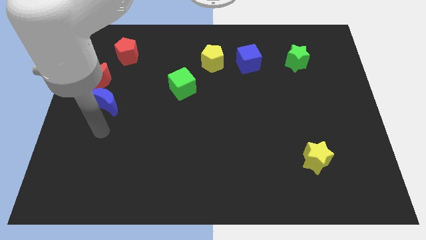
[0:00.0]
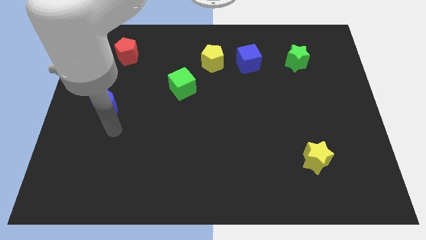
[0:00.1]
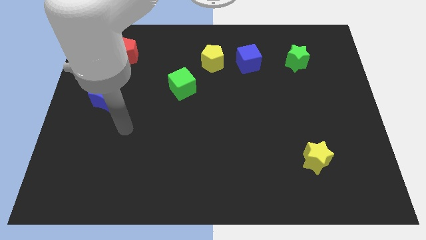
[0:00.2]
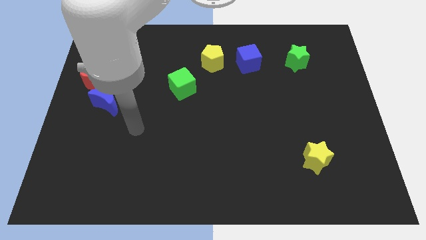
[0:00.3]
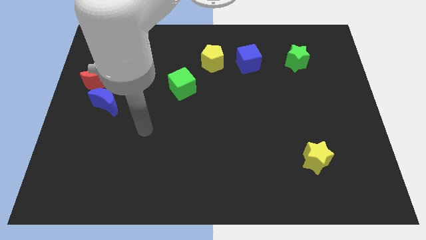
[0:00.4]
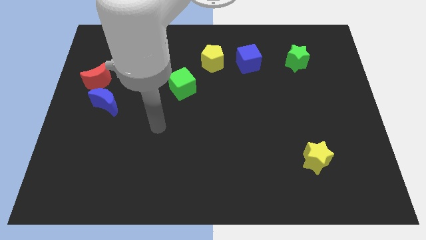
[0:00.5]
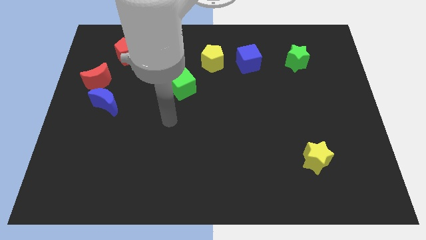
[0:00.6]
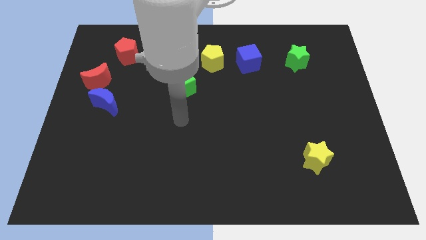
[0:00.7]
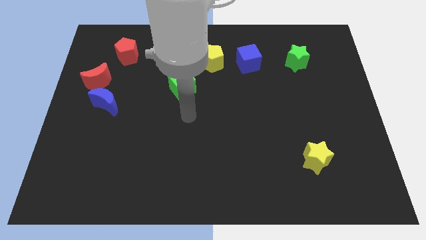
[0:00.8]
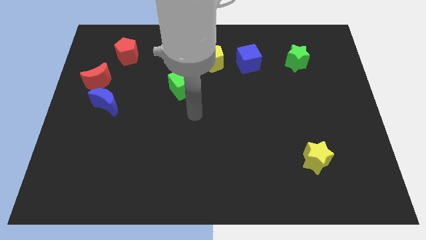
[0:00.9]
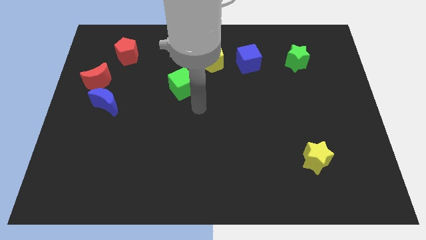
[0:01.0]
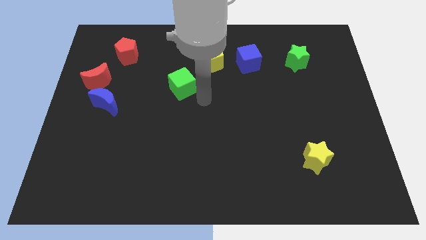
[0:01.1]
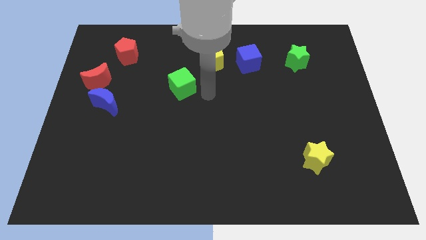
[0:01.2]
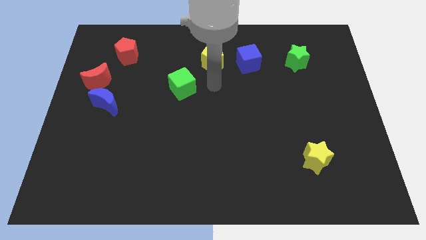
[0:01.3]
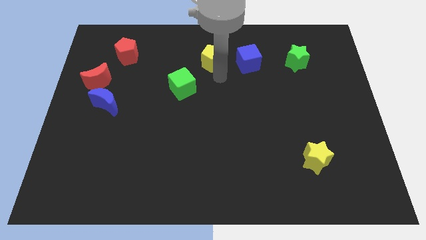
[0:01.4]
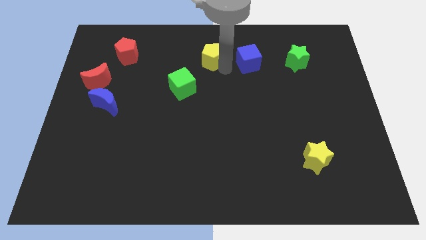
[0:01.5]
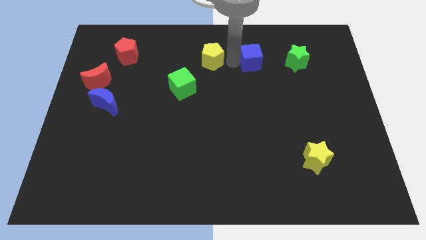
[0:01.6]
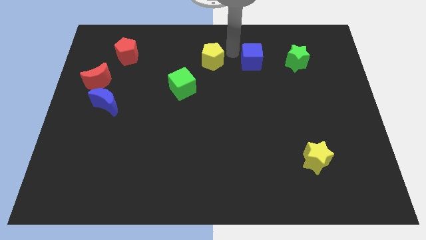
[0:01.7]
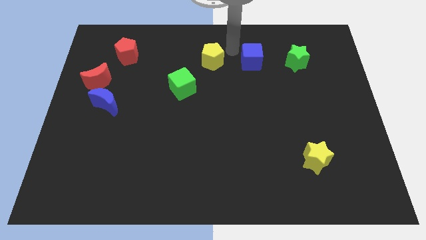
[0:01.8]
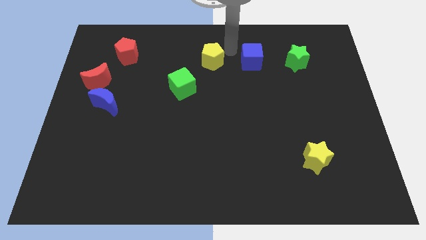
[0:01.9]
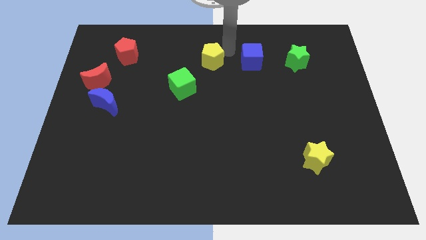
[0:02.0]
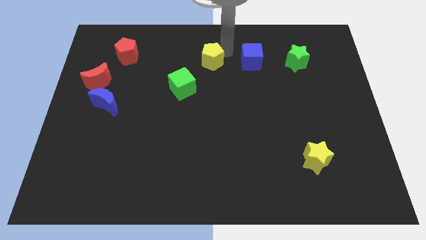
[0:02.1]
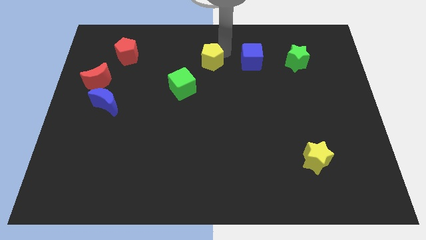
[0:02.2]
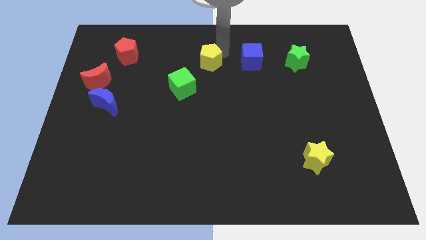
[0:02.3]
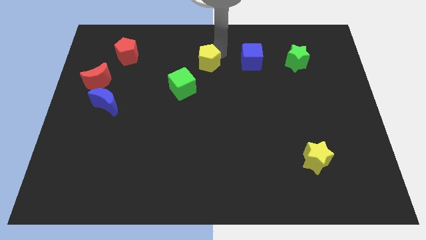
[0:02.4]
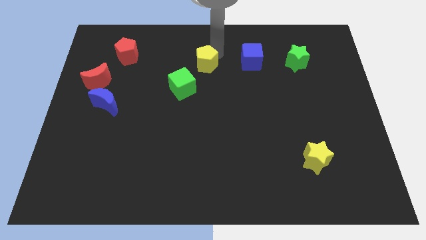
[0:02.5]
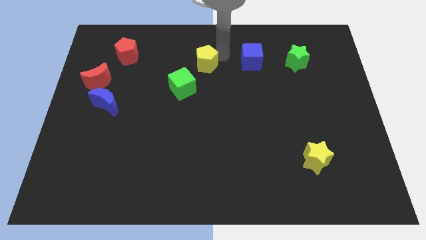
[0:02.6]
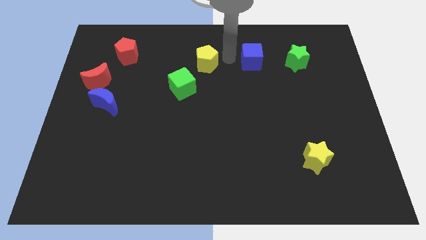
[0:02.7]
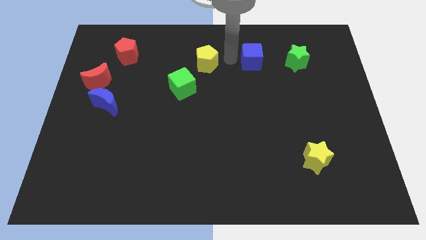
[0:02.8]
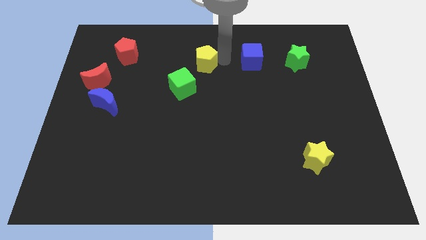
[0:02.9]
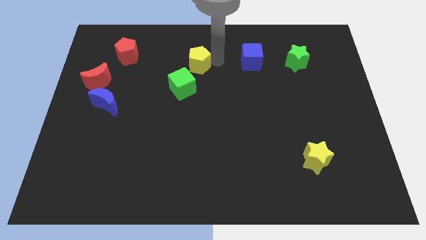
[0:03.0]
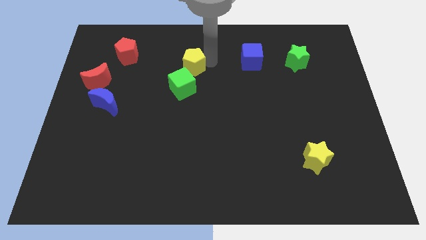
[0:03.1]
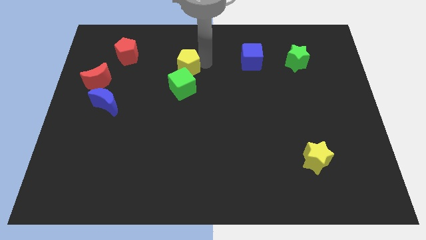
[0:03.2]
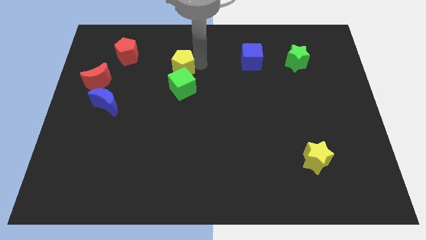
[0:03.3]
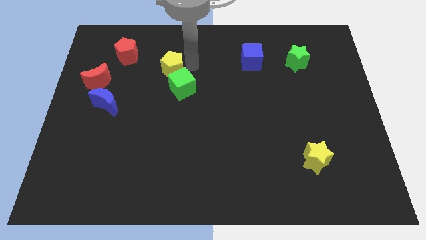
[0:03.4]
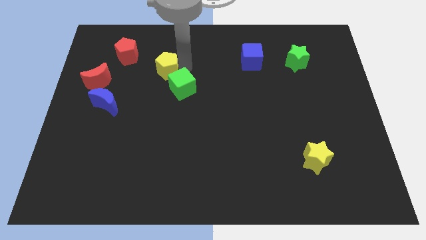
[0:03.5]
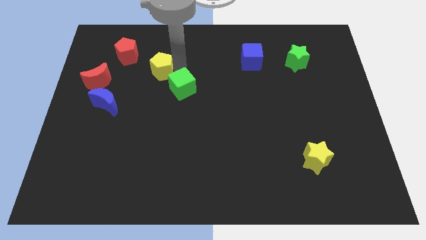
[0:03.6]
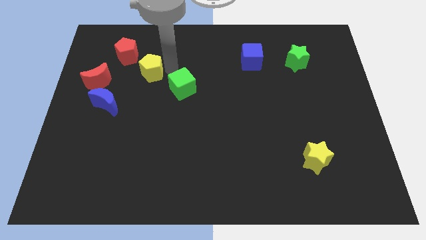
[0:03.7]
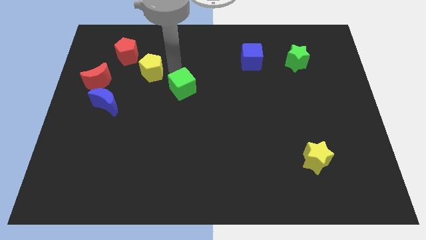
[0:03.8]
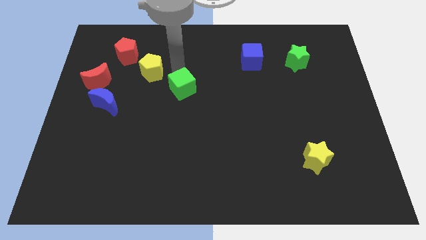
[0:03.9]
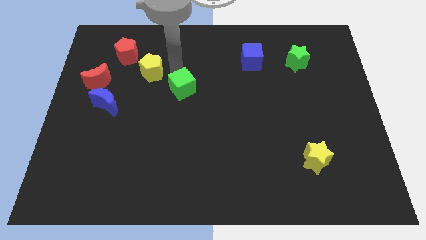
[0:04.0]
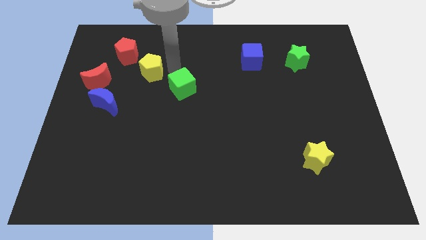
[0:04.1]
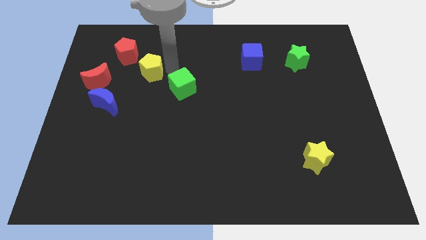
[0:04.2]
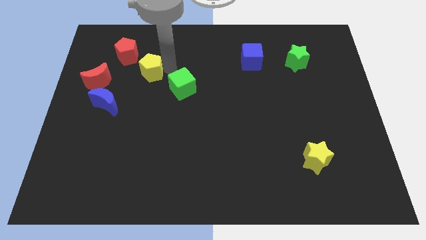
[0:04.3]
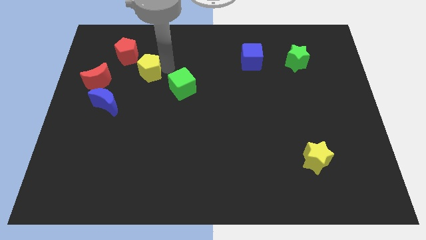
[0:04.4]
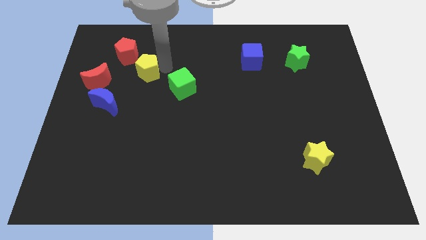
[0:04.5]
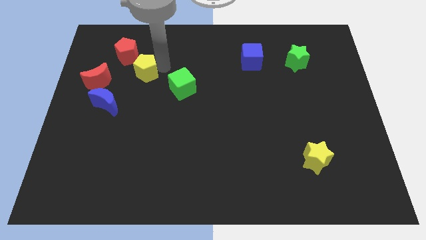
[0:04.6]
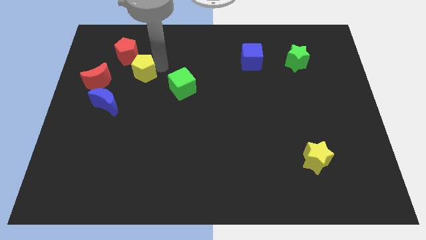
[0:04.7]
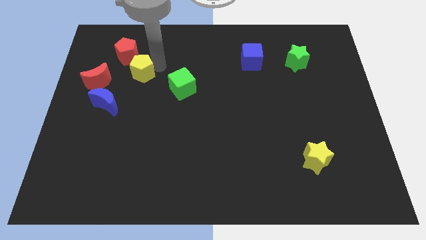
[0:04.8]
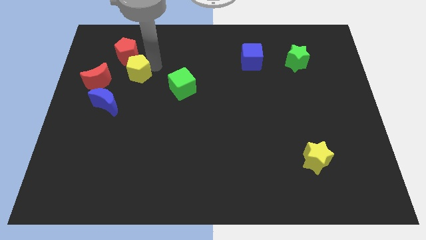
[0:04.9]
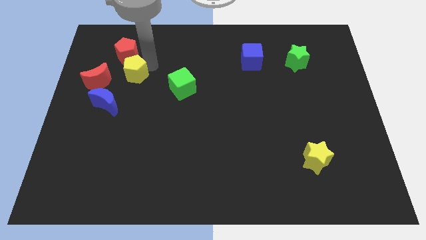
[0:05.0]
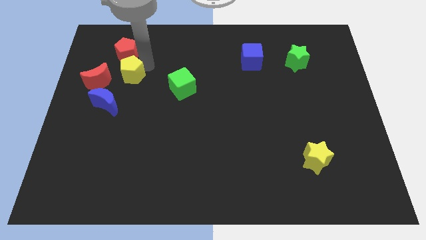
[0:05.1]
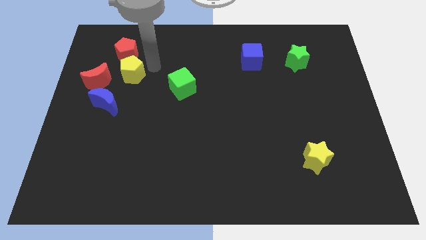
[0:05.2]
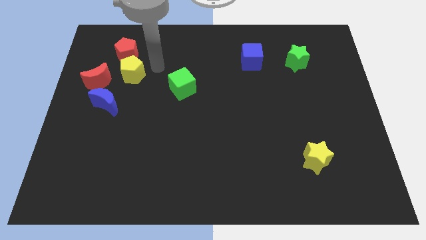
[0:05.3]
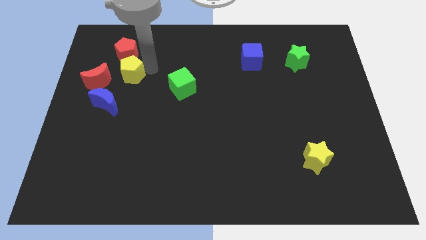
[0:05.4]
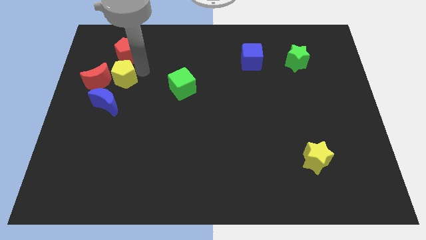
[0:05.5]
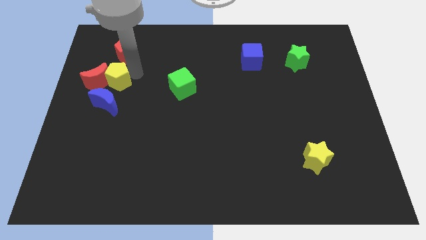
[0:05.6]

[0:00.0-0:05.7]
slide the yellow pentagon towards the red moon

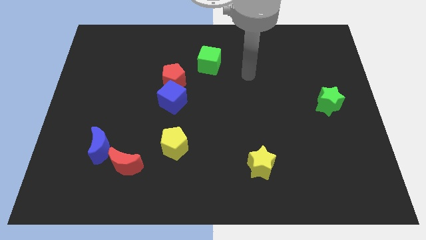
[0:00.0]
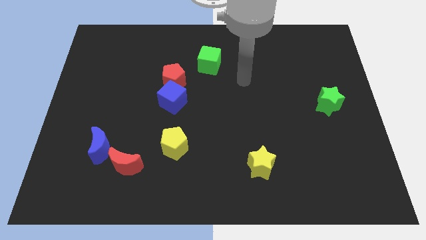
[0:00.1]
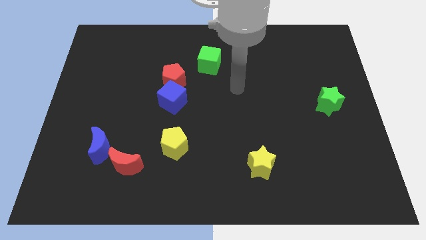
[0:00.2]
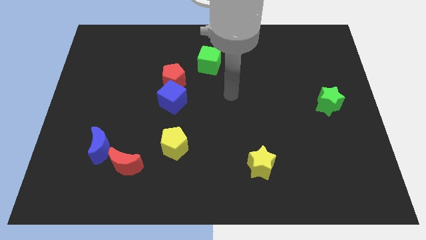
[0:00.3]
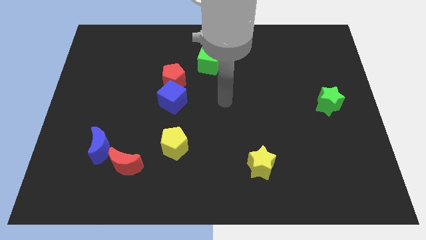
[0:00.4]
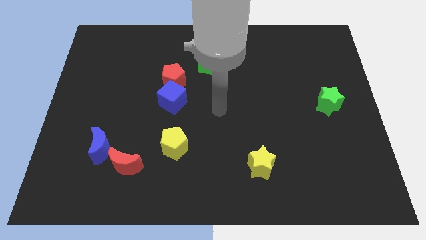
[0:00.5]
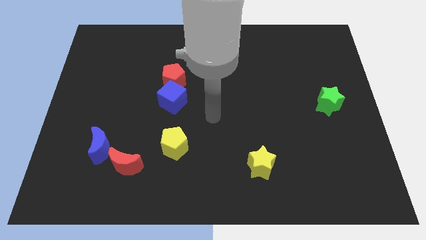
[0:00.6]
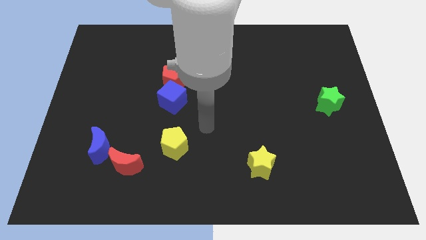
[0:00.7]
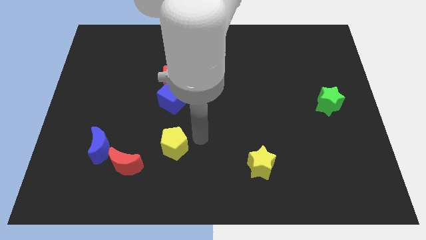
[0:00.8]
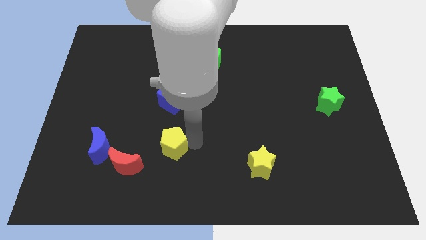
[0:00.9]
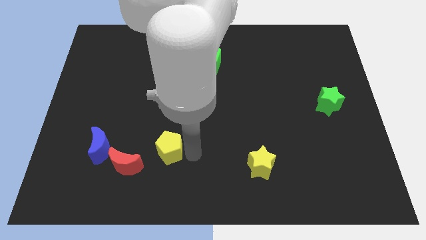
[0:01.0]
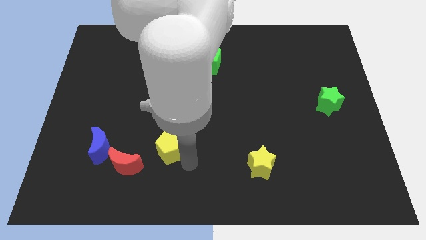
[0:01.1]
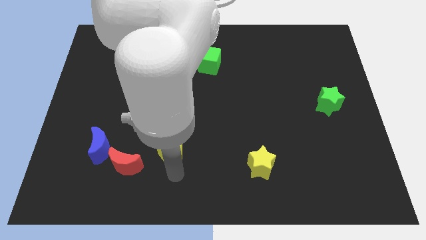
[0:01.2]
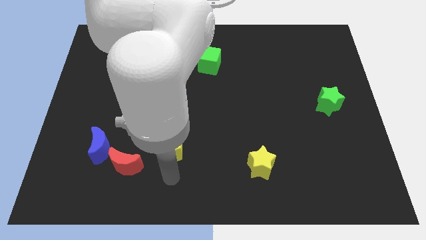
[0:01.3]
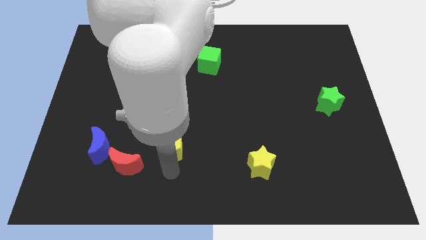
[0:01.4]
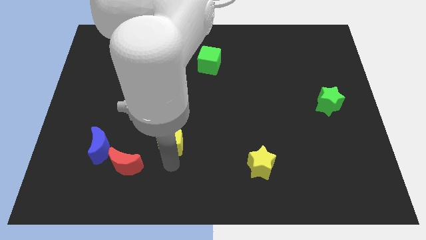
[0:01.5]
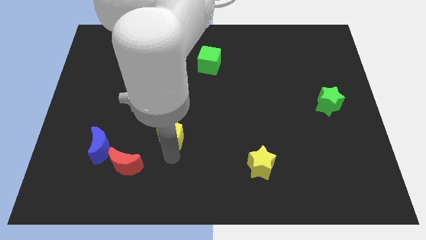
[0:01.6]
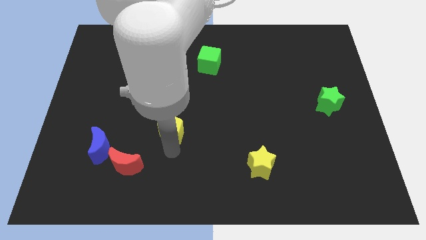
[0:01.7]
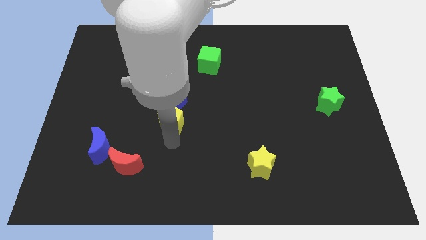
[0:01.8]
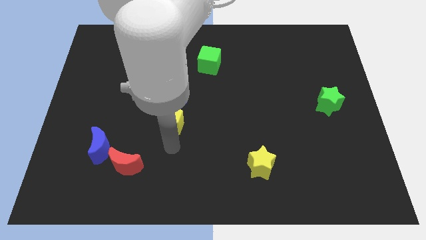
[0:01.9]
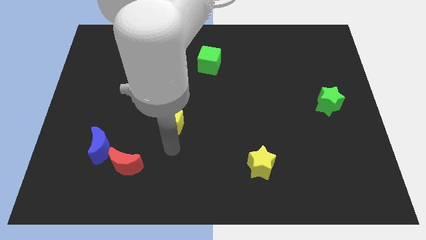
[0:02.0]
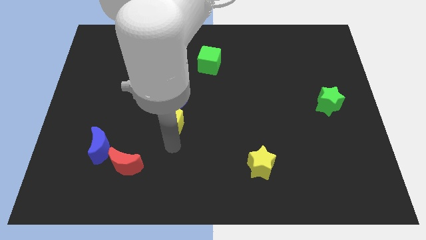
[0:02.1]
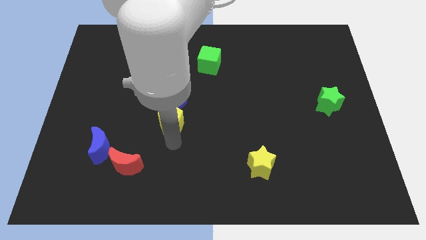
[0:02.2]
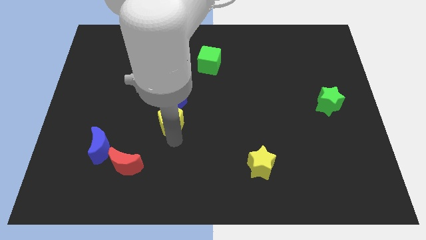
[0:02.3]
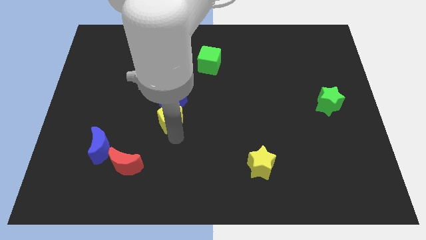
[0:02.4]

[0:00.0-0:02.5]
move the yellow pentagon to the blue cube
